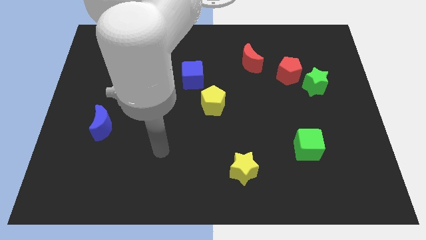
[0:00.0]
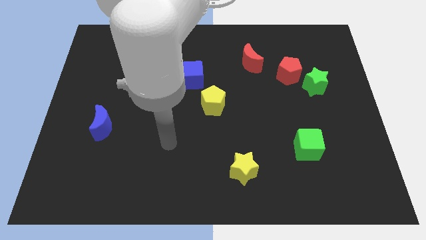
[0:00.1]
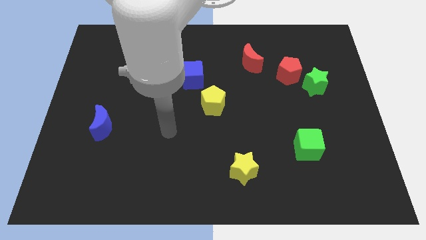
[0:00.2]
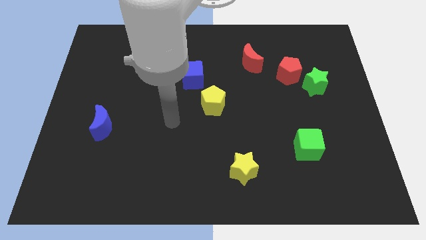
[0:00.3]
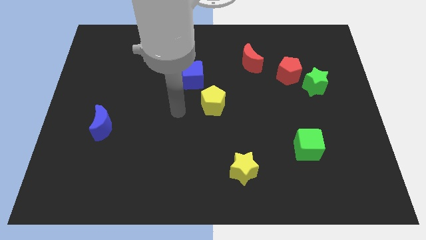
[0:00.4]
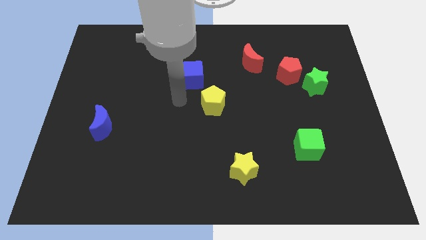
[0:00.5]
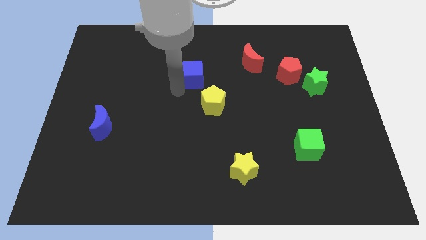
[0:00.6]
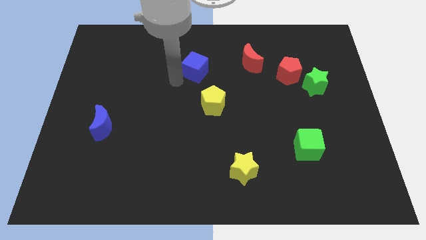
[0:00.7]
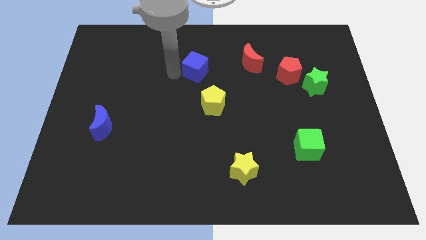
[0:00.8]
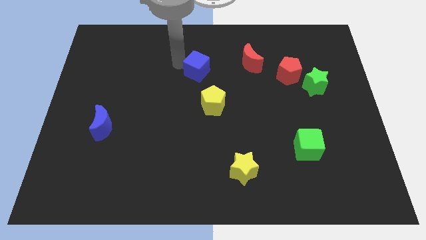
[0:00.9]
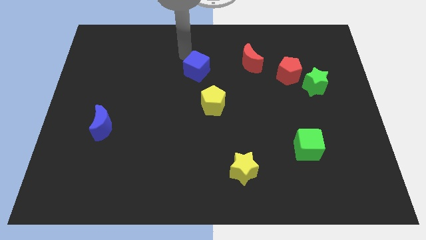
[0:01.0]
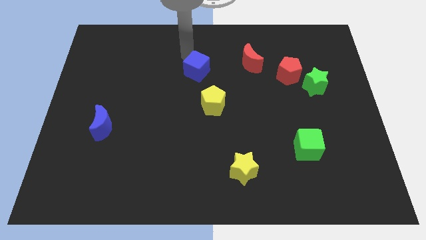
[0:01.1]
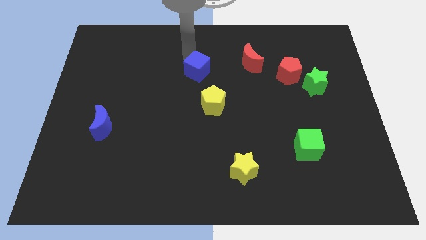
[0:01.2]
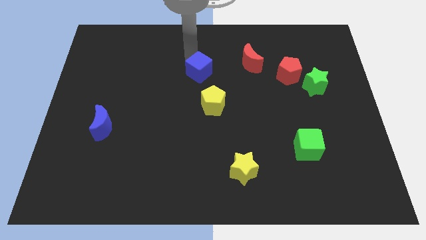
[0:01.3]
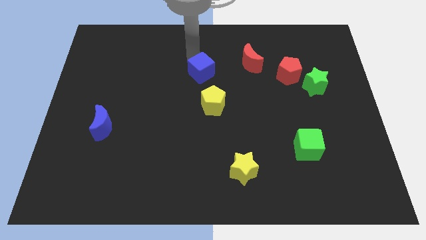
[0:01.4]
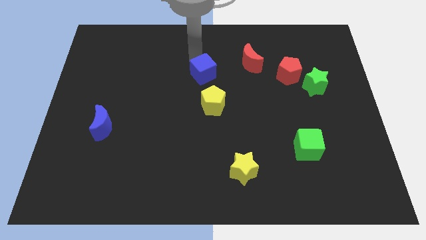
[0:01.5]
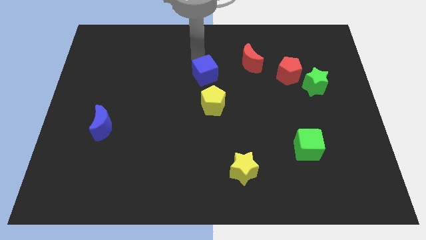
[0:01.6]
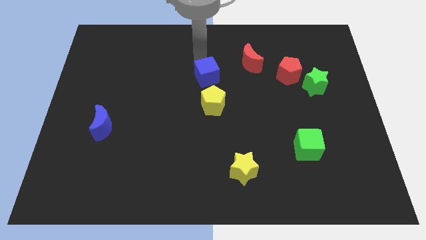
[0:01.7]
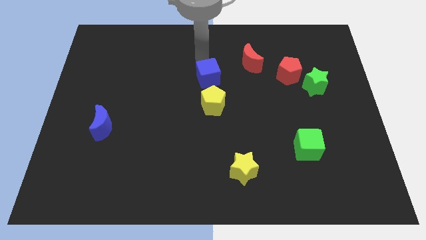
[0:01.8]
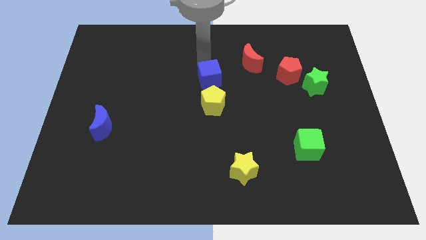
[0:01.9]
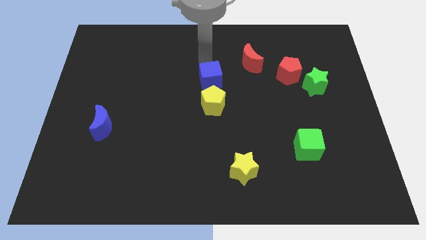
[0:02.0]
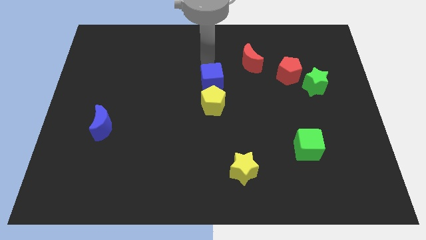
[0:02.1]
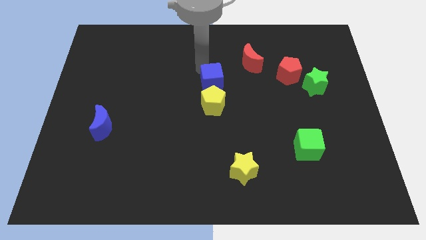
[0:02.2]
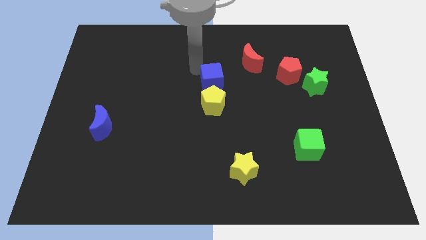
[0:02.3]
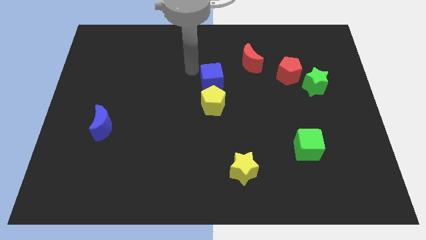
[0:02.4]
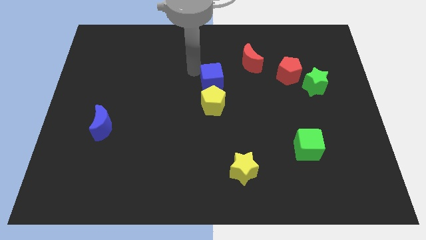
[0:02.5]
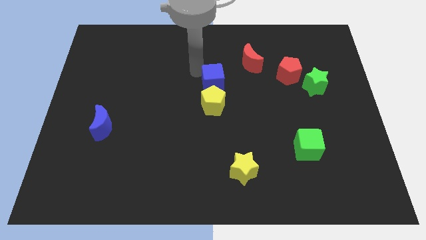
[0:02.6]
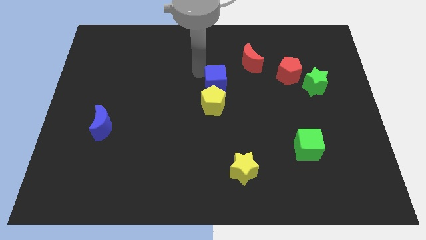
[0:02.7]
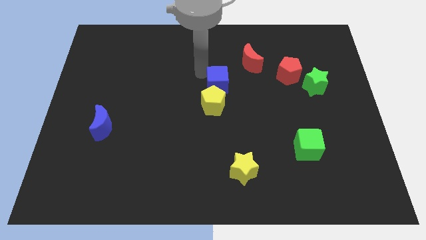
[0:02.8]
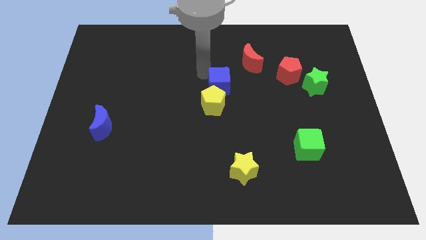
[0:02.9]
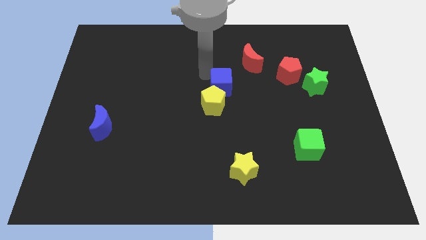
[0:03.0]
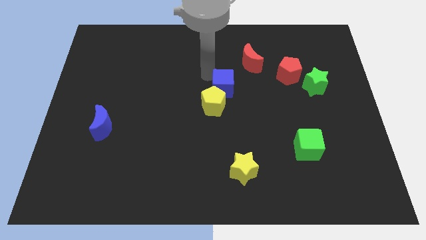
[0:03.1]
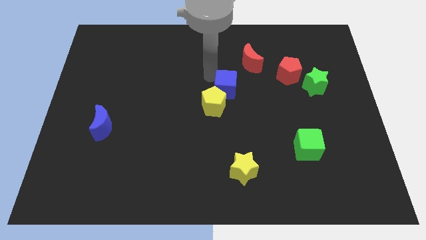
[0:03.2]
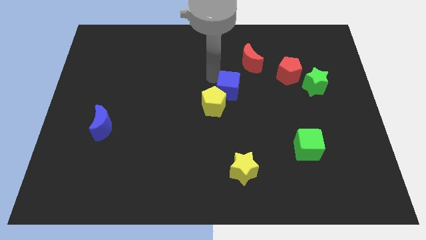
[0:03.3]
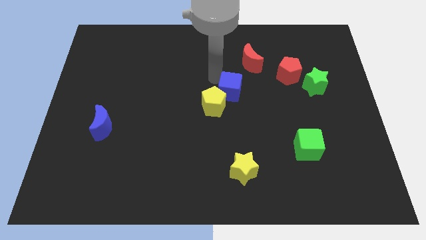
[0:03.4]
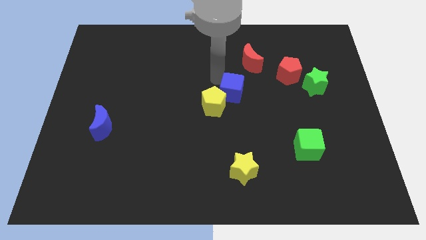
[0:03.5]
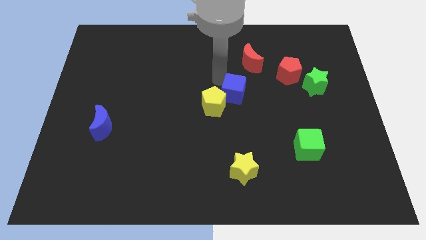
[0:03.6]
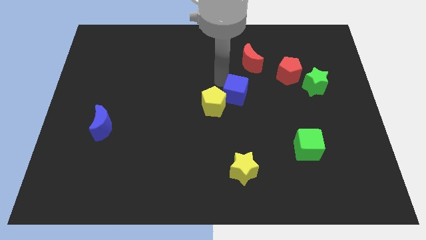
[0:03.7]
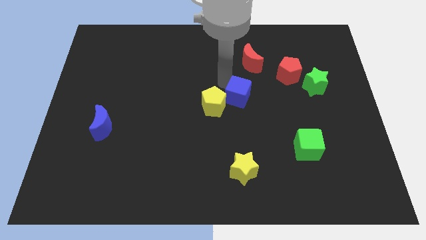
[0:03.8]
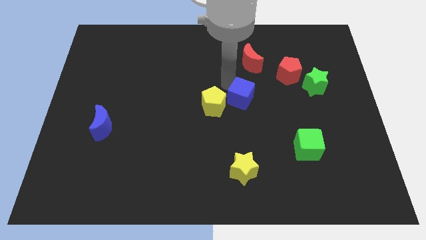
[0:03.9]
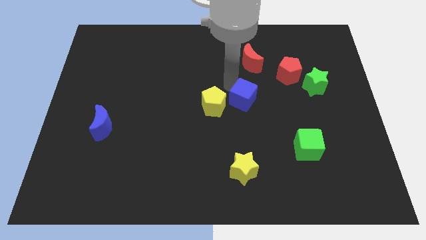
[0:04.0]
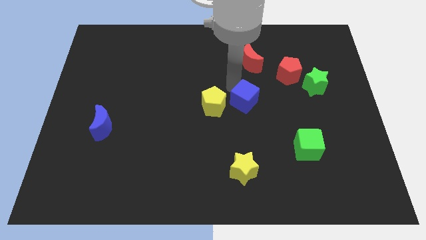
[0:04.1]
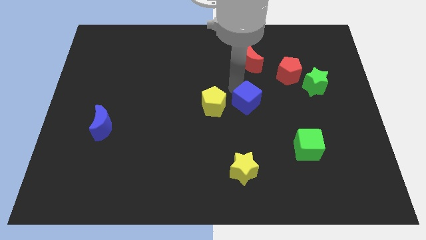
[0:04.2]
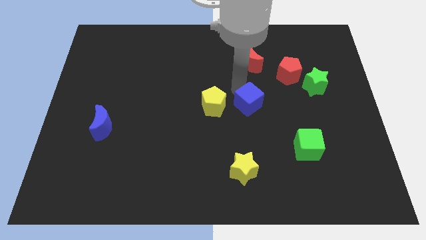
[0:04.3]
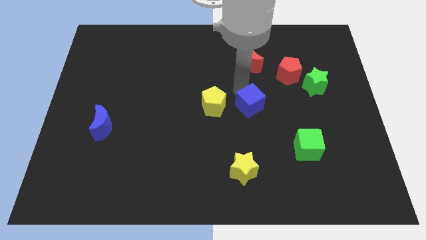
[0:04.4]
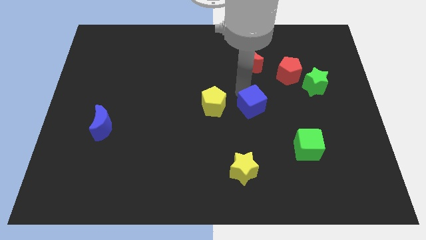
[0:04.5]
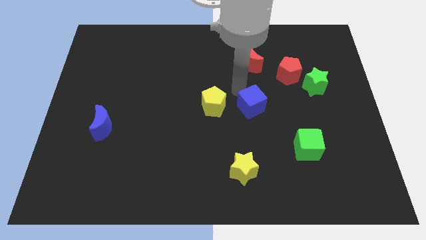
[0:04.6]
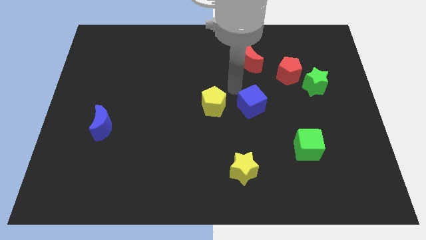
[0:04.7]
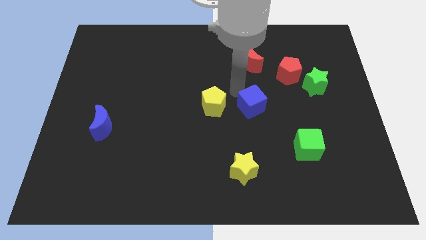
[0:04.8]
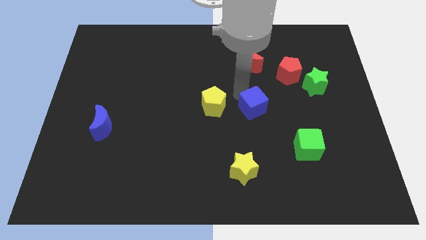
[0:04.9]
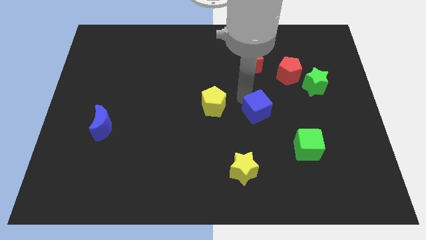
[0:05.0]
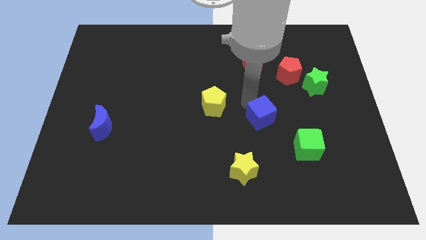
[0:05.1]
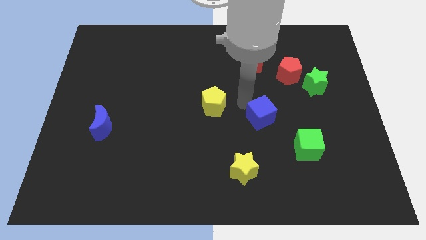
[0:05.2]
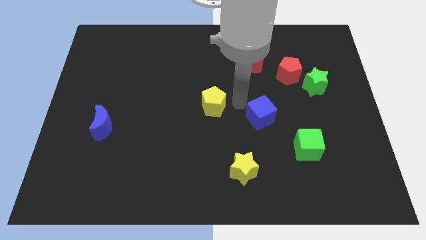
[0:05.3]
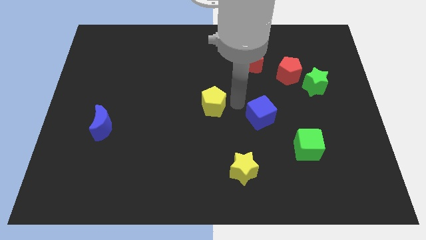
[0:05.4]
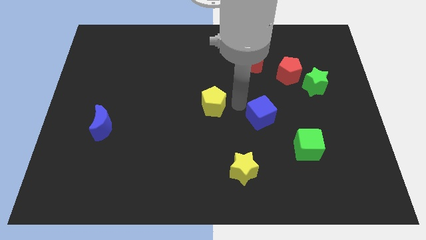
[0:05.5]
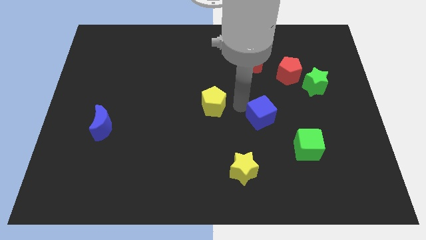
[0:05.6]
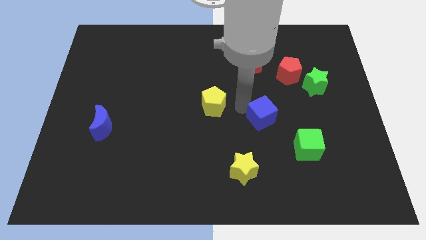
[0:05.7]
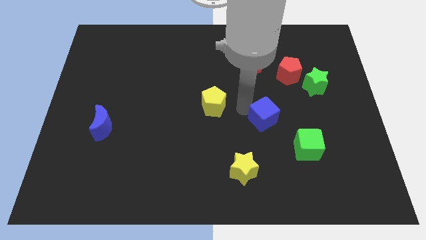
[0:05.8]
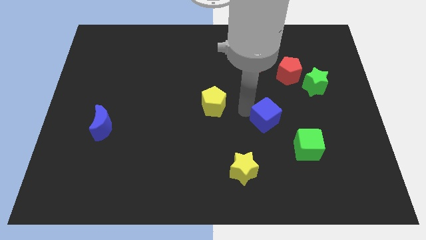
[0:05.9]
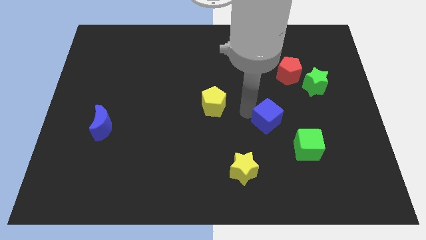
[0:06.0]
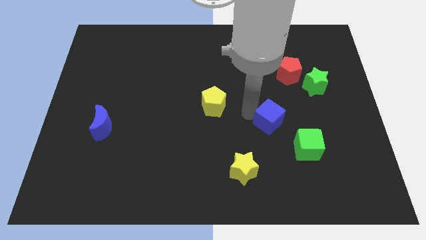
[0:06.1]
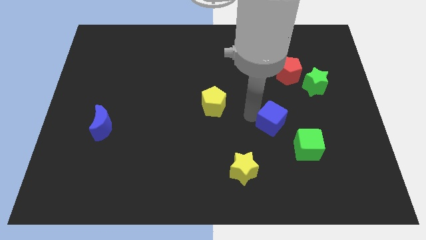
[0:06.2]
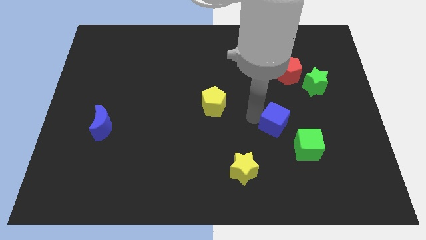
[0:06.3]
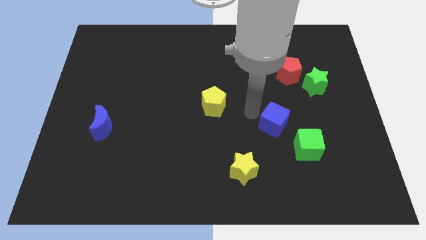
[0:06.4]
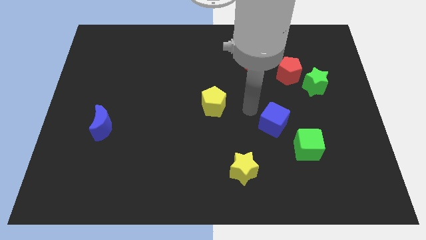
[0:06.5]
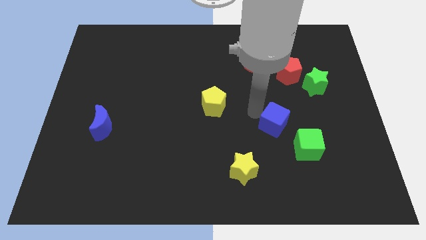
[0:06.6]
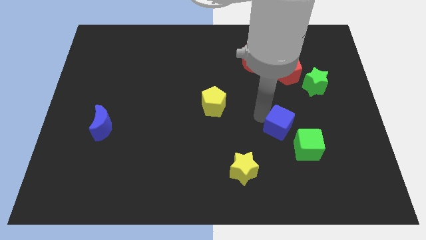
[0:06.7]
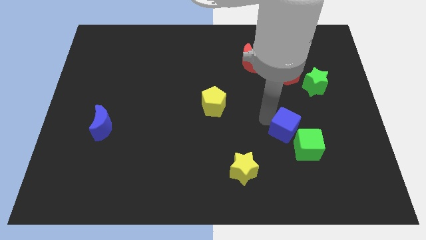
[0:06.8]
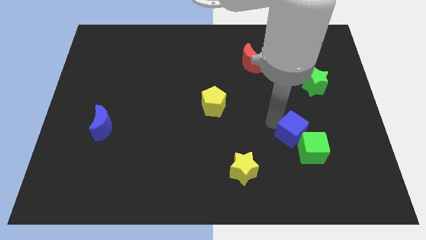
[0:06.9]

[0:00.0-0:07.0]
move the blue cube next to the green cube
